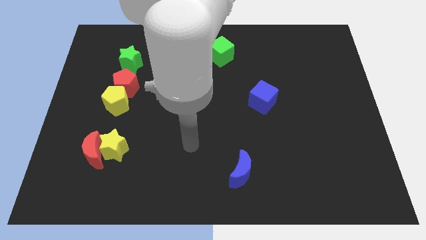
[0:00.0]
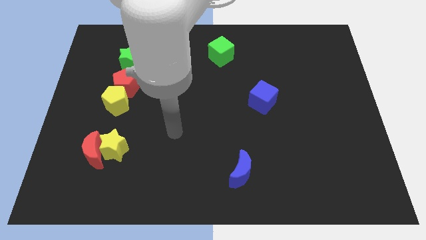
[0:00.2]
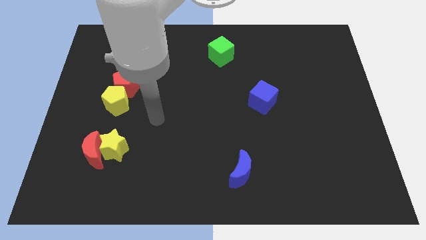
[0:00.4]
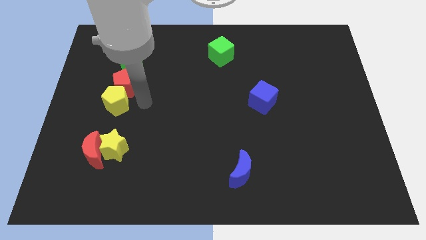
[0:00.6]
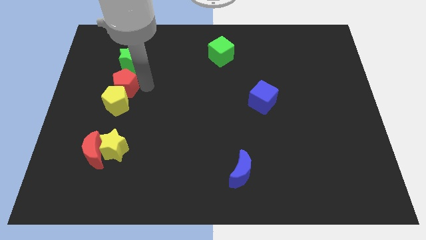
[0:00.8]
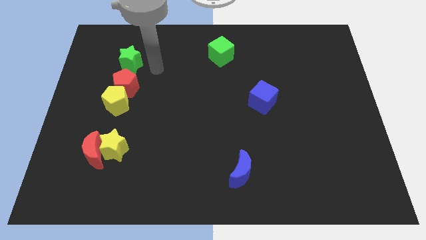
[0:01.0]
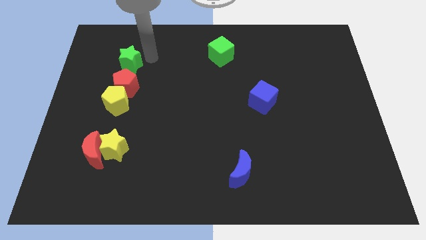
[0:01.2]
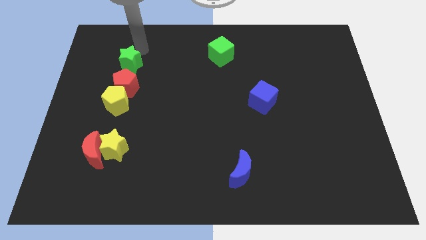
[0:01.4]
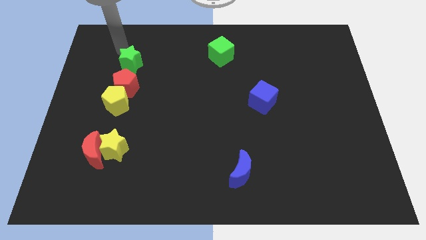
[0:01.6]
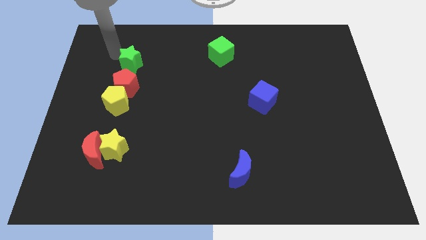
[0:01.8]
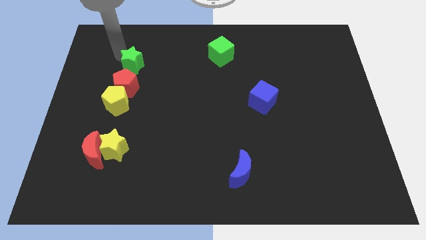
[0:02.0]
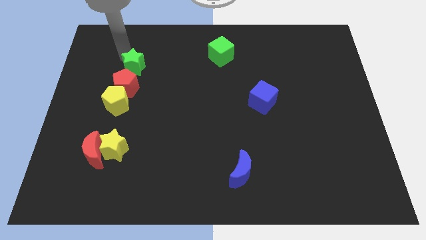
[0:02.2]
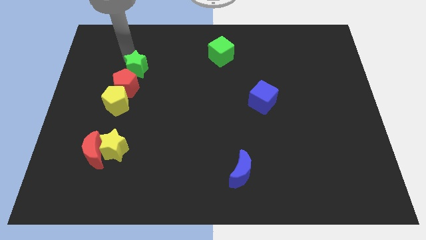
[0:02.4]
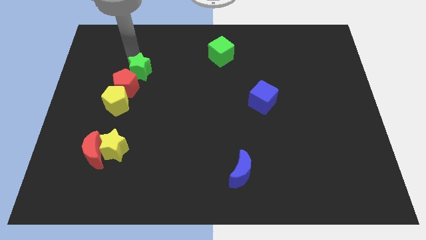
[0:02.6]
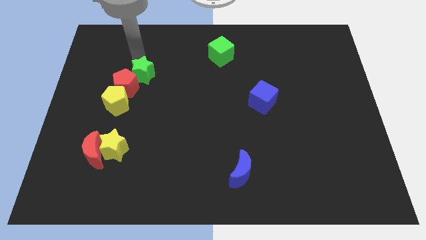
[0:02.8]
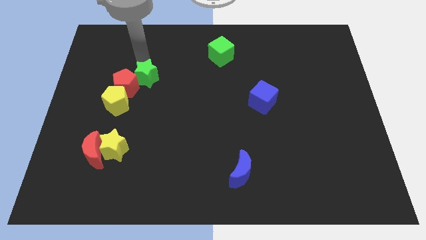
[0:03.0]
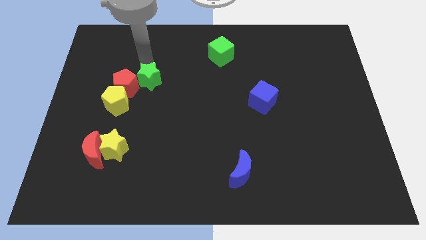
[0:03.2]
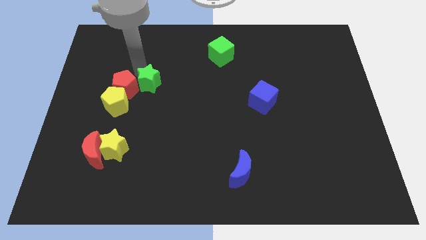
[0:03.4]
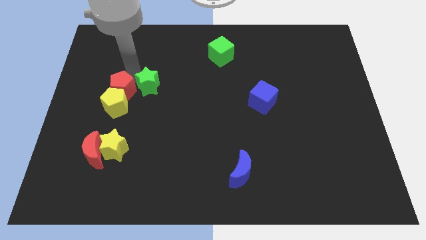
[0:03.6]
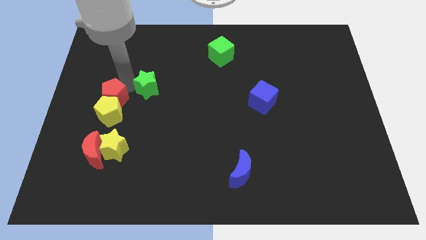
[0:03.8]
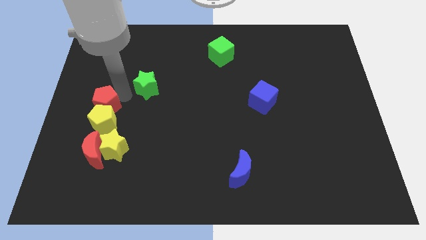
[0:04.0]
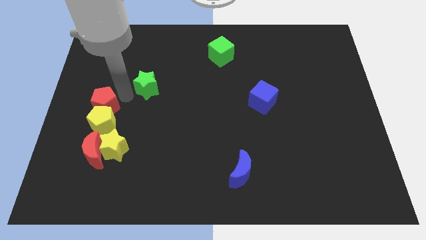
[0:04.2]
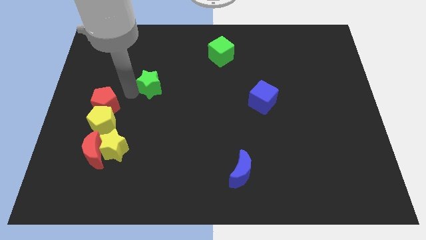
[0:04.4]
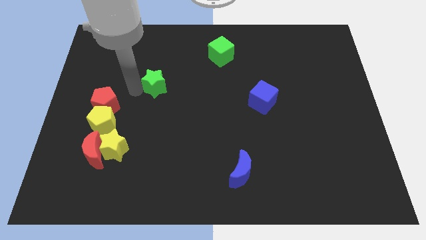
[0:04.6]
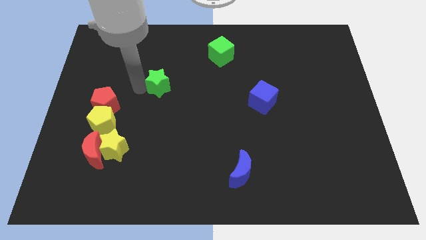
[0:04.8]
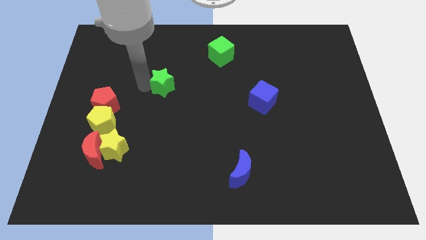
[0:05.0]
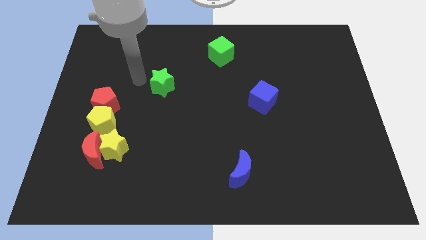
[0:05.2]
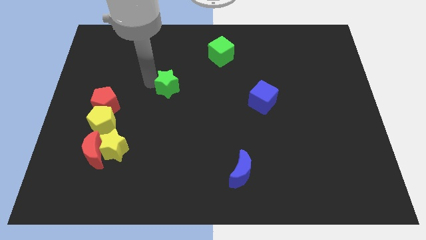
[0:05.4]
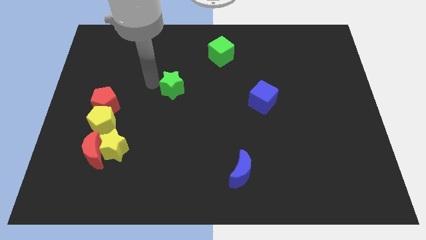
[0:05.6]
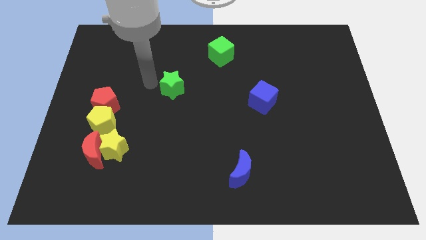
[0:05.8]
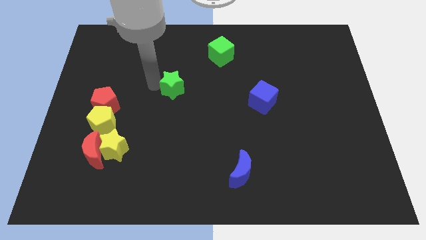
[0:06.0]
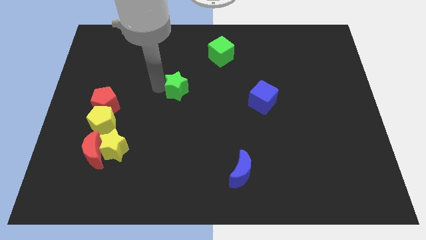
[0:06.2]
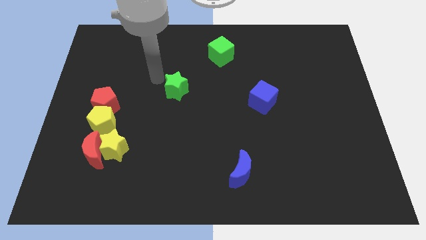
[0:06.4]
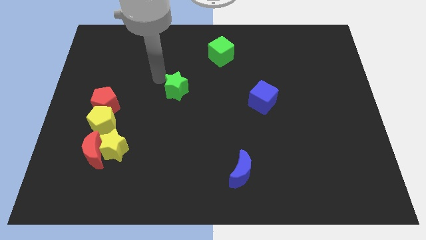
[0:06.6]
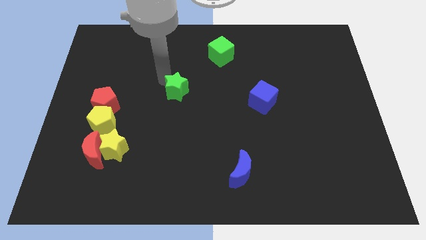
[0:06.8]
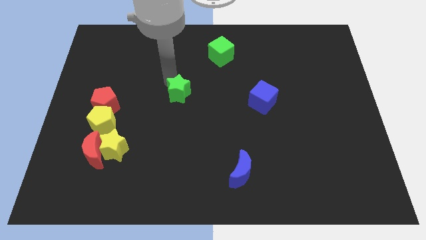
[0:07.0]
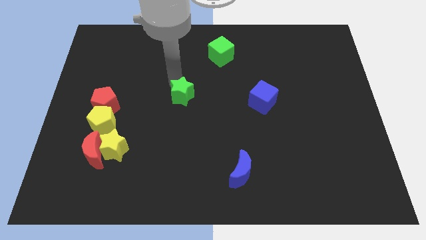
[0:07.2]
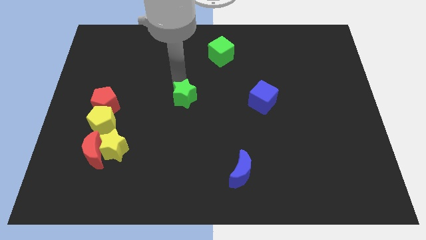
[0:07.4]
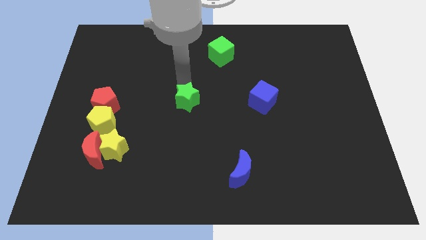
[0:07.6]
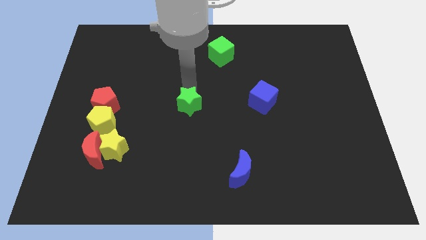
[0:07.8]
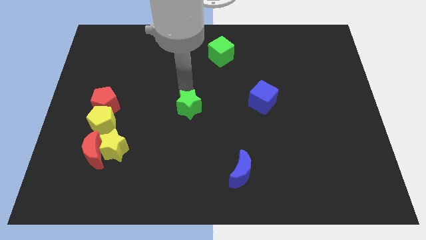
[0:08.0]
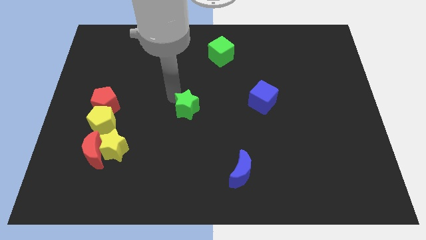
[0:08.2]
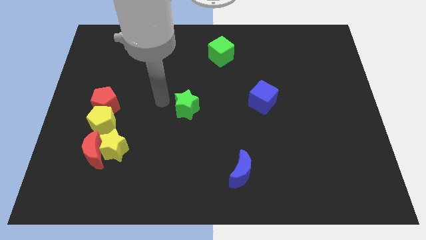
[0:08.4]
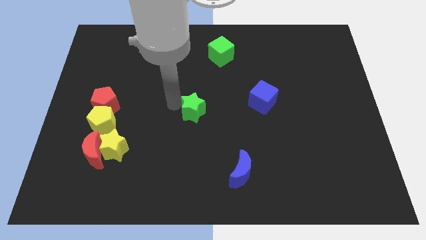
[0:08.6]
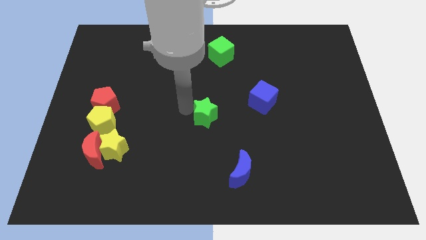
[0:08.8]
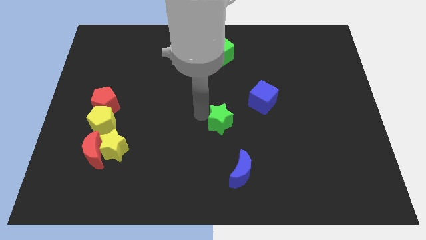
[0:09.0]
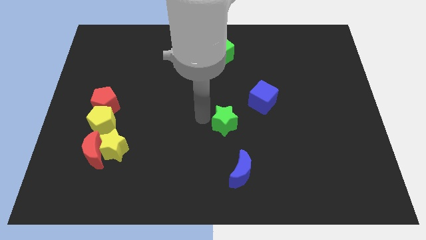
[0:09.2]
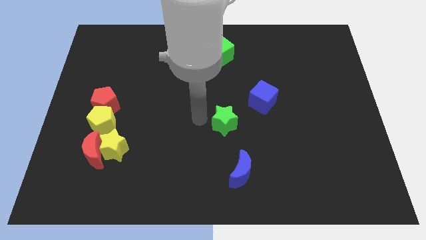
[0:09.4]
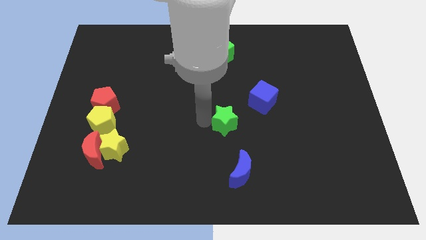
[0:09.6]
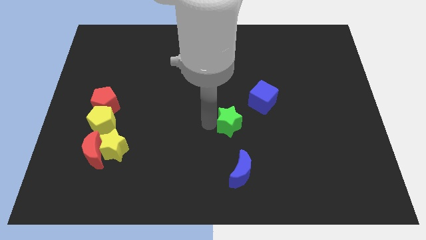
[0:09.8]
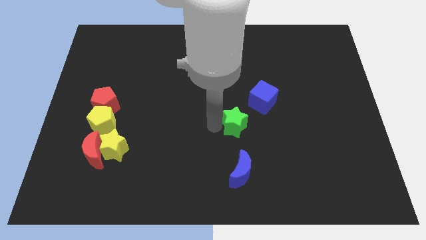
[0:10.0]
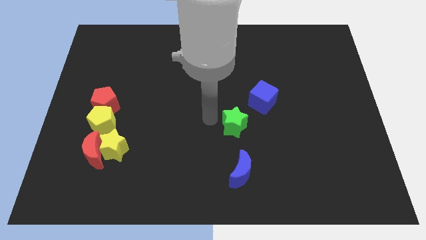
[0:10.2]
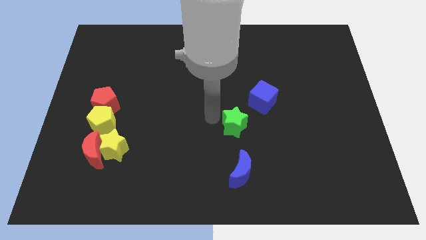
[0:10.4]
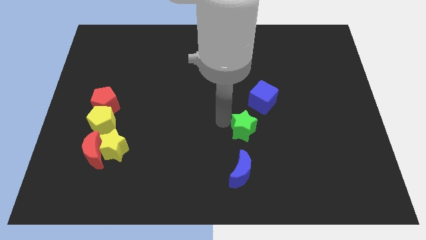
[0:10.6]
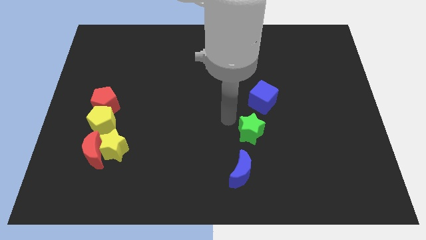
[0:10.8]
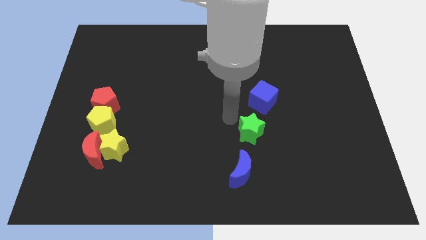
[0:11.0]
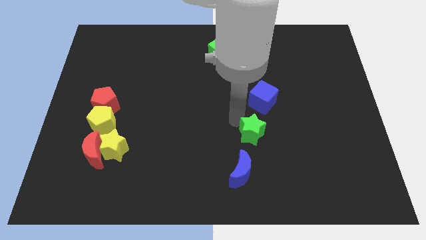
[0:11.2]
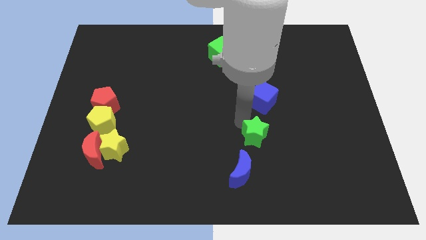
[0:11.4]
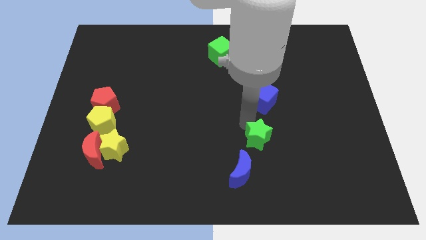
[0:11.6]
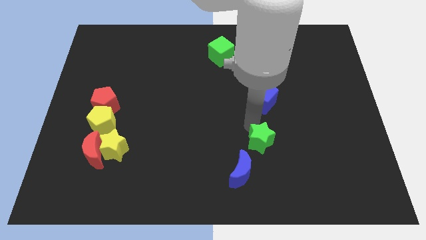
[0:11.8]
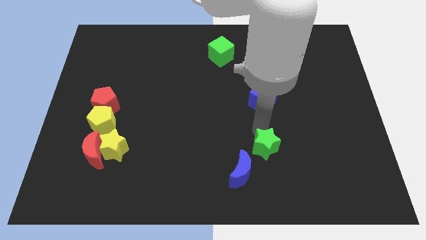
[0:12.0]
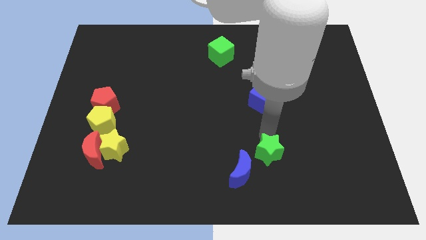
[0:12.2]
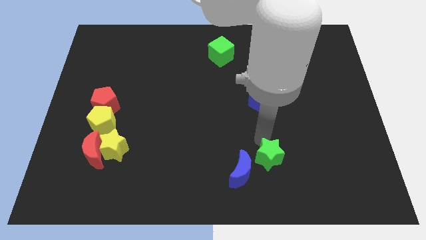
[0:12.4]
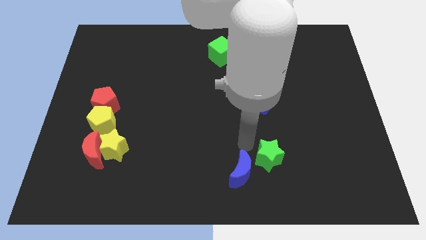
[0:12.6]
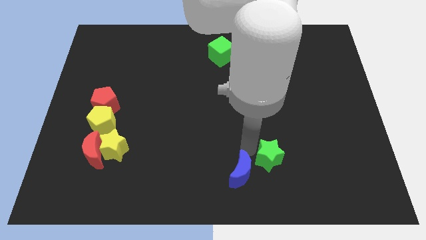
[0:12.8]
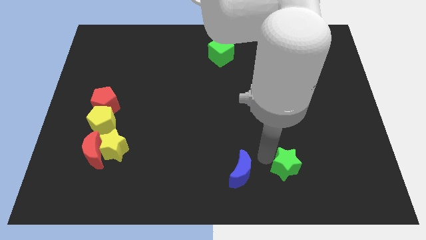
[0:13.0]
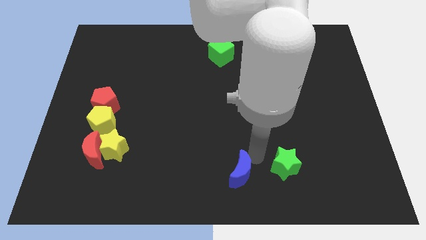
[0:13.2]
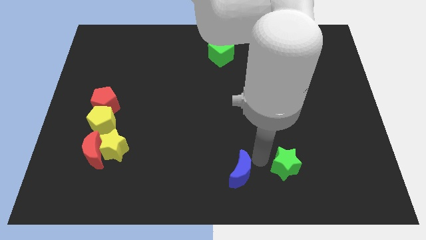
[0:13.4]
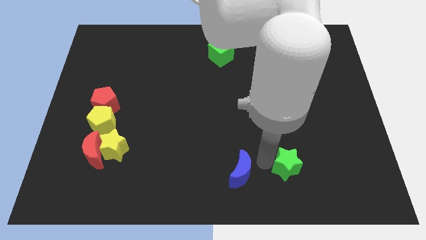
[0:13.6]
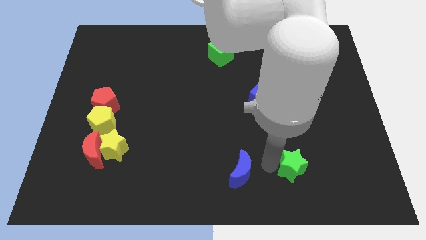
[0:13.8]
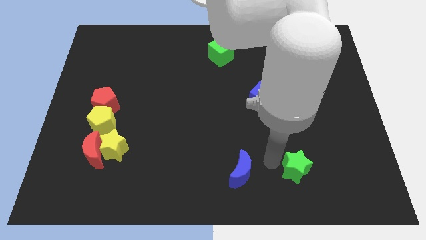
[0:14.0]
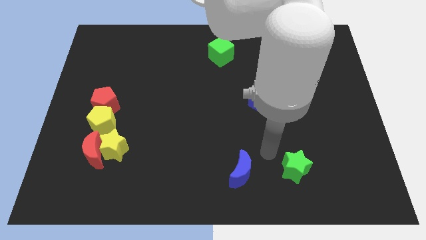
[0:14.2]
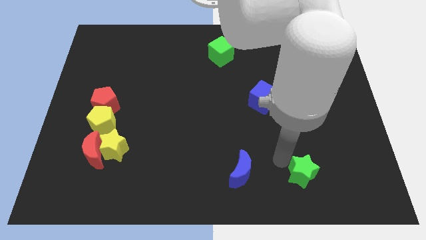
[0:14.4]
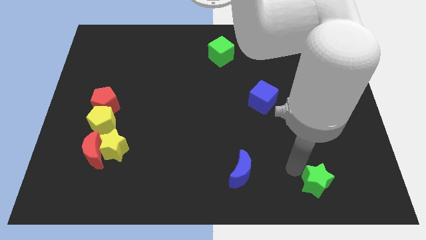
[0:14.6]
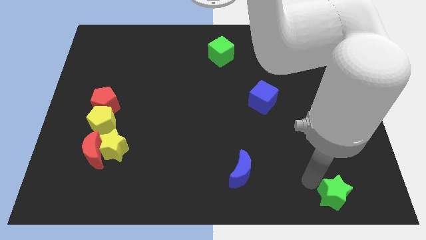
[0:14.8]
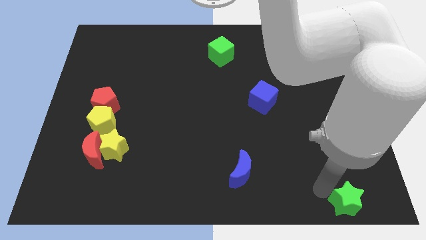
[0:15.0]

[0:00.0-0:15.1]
slide the green star to the bottom right corner
